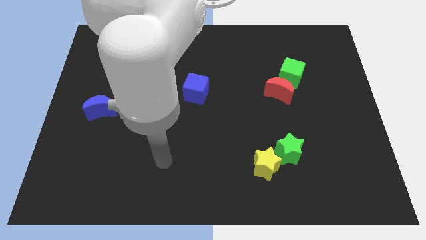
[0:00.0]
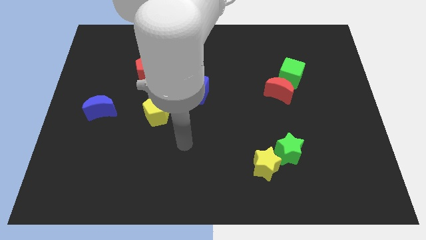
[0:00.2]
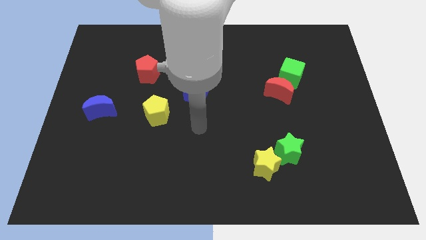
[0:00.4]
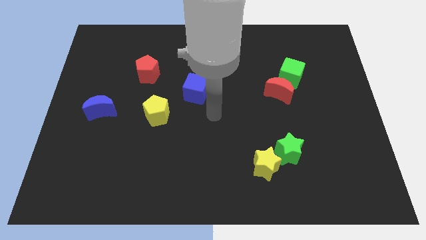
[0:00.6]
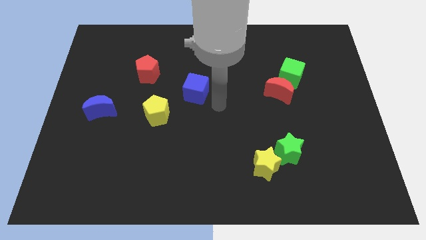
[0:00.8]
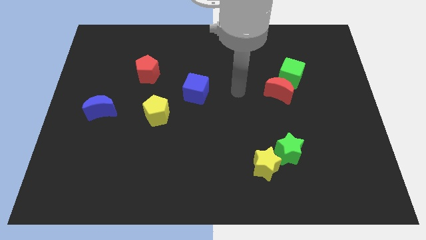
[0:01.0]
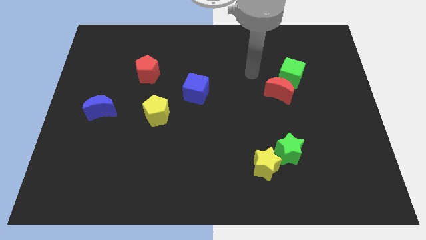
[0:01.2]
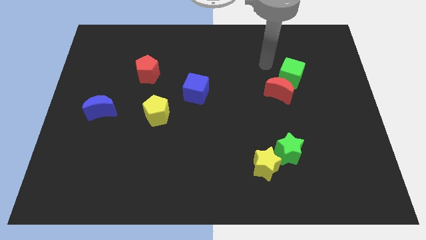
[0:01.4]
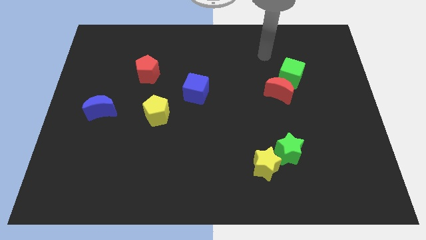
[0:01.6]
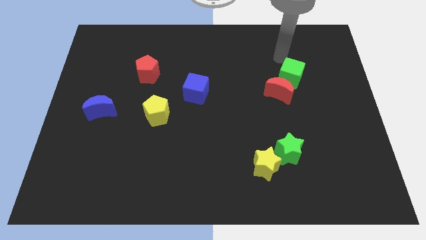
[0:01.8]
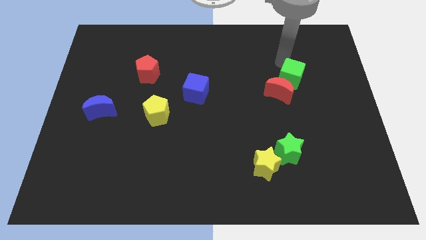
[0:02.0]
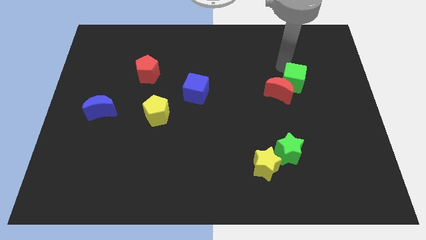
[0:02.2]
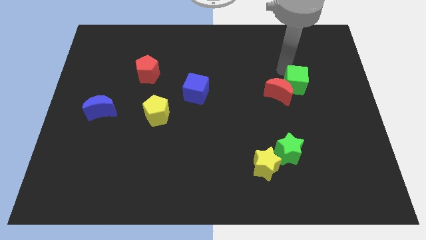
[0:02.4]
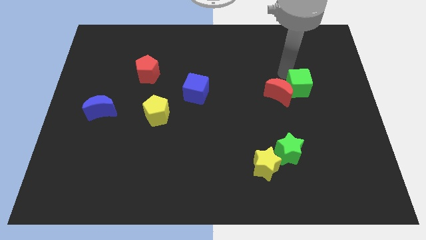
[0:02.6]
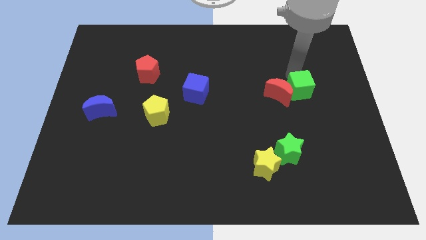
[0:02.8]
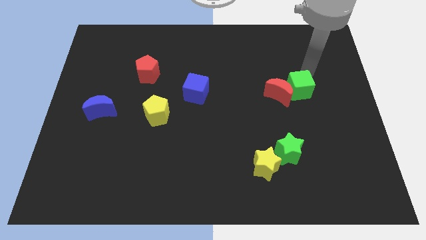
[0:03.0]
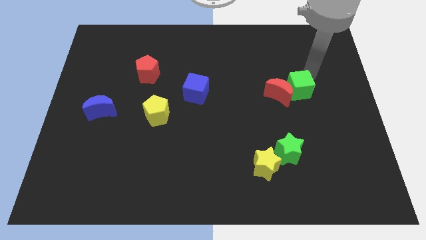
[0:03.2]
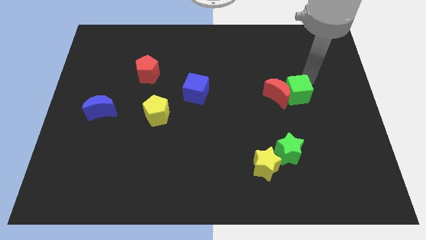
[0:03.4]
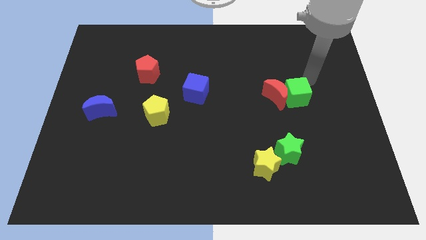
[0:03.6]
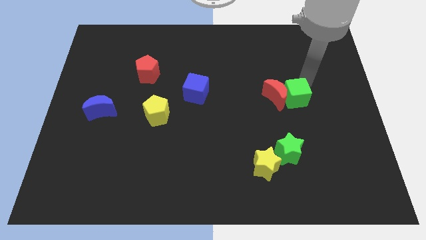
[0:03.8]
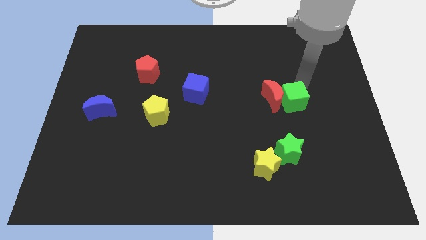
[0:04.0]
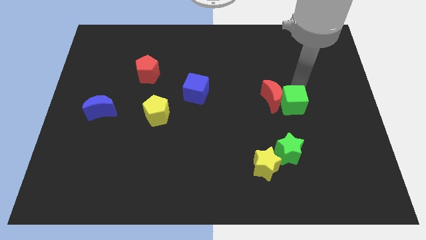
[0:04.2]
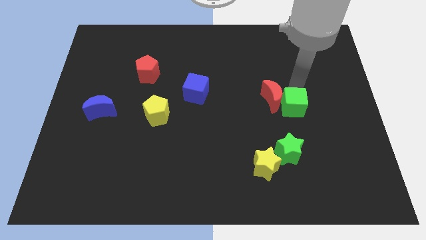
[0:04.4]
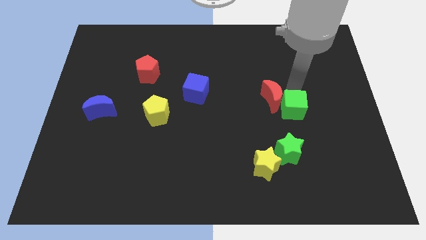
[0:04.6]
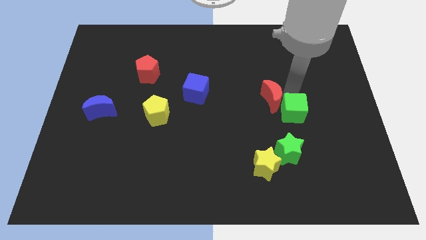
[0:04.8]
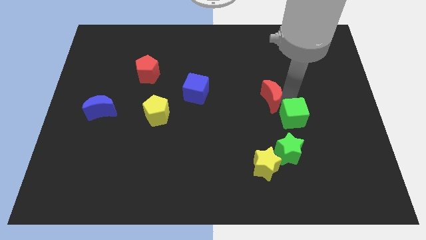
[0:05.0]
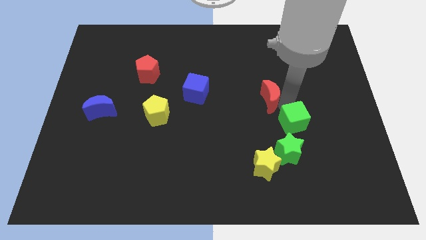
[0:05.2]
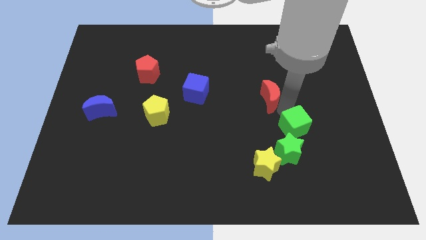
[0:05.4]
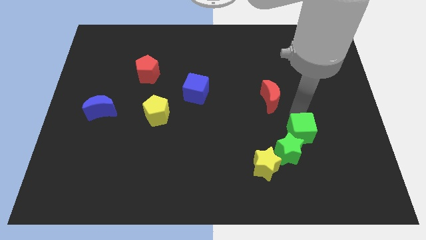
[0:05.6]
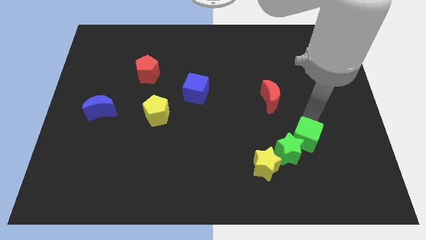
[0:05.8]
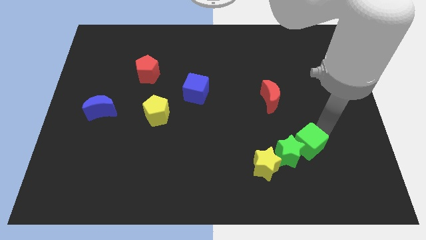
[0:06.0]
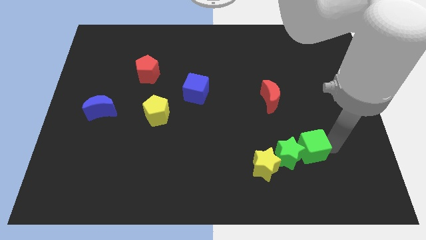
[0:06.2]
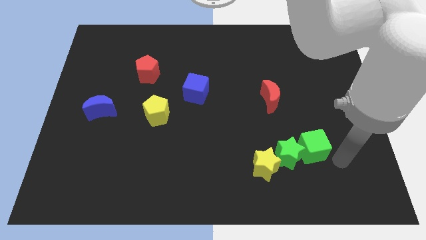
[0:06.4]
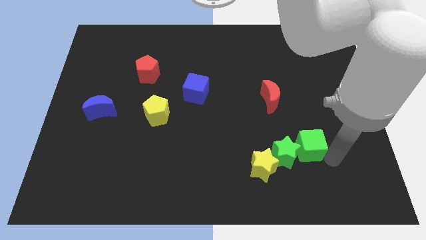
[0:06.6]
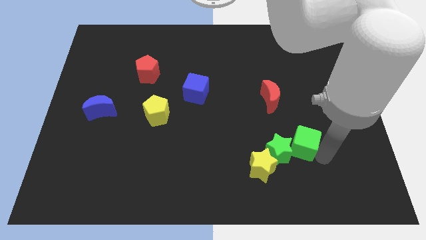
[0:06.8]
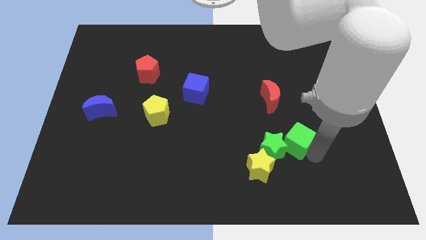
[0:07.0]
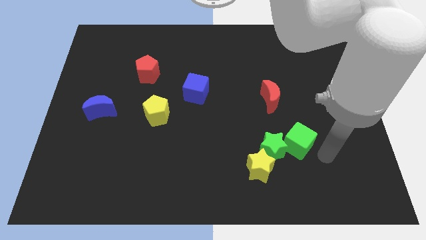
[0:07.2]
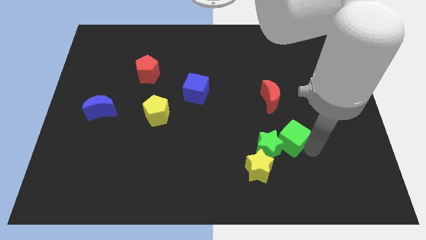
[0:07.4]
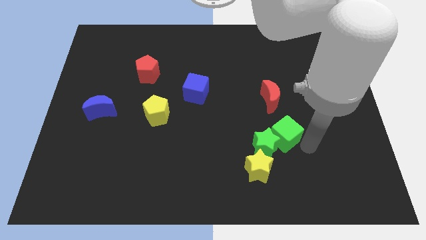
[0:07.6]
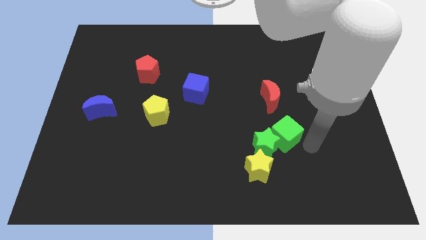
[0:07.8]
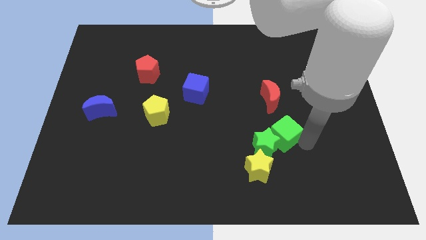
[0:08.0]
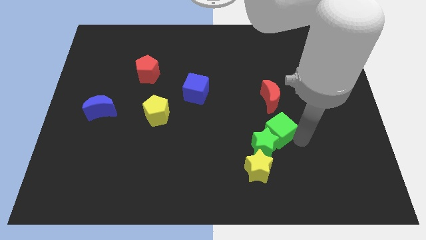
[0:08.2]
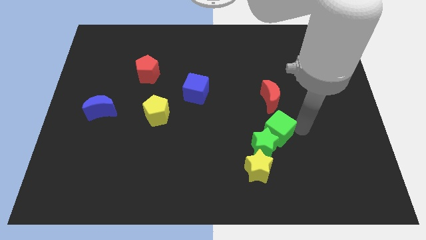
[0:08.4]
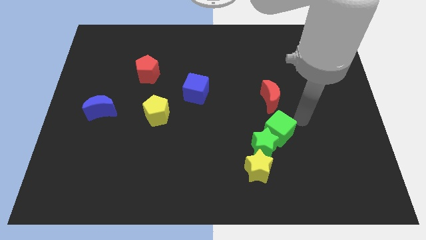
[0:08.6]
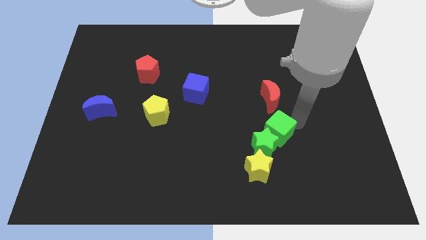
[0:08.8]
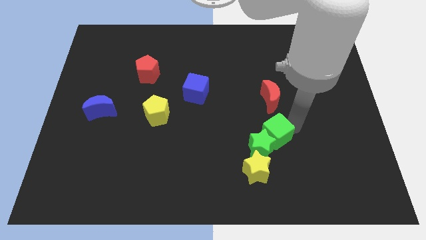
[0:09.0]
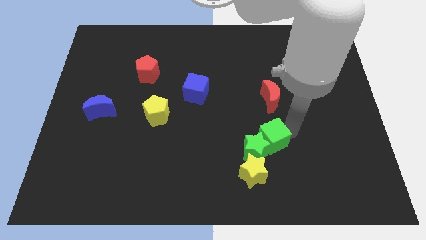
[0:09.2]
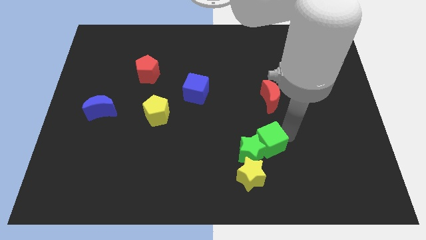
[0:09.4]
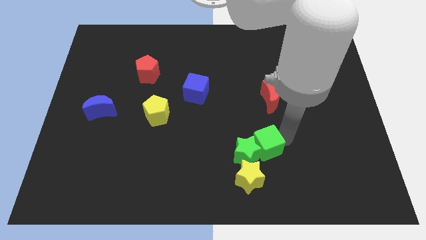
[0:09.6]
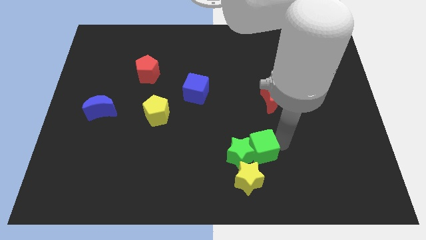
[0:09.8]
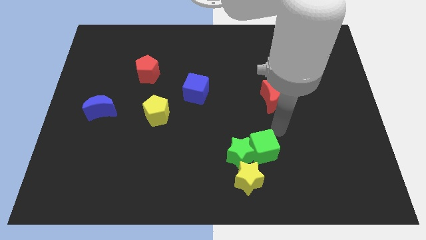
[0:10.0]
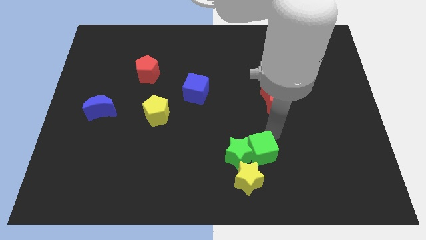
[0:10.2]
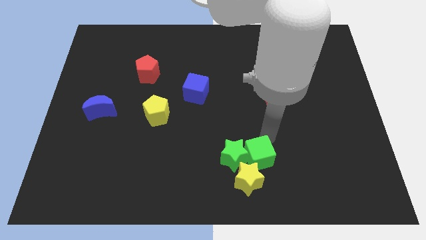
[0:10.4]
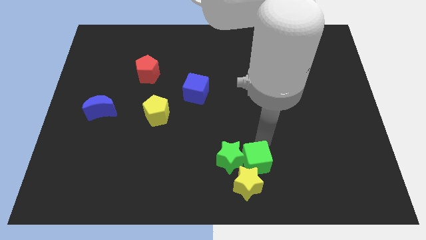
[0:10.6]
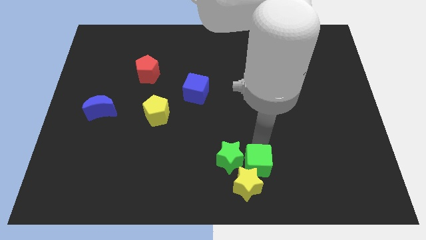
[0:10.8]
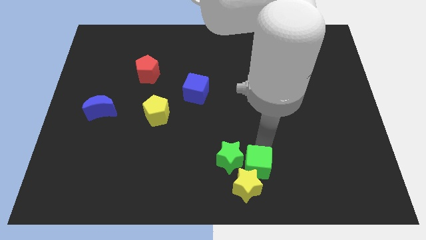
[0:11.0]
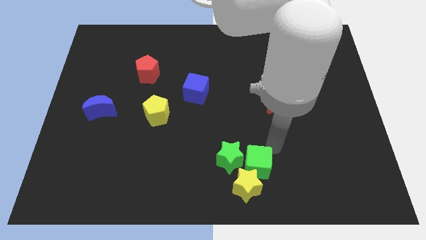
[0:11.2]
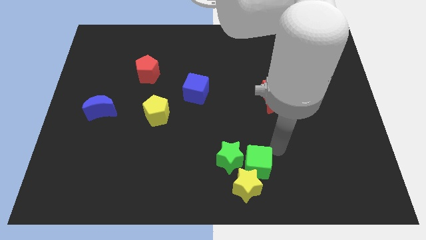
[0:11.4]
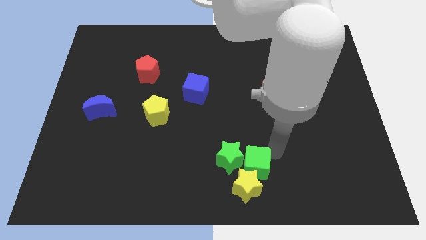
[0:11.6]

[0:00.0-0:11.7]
push the green cube to the bottom side

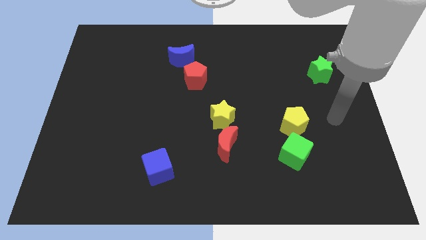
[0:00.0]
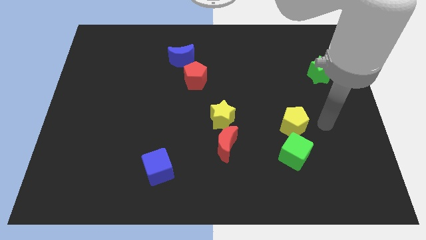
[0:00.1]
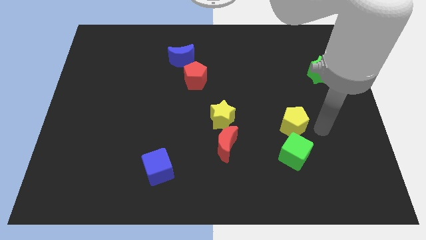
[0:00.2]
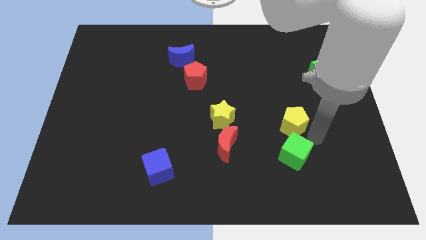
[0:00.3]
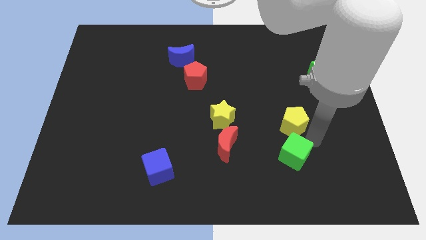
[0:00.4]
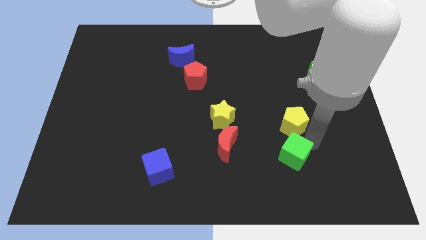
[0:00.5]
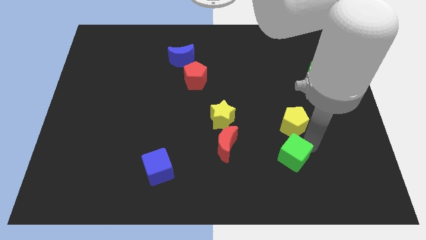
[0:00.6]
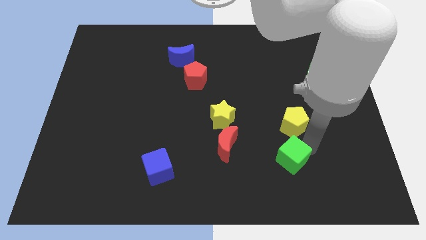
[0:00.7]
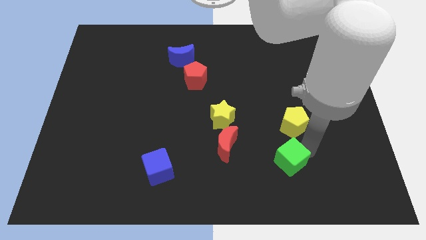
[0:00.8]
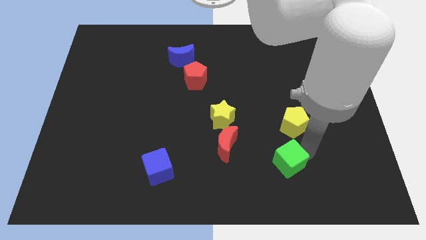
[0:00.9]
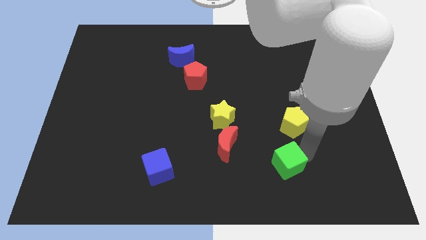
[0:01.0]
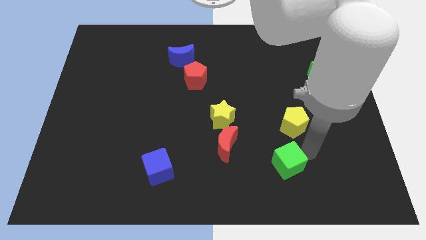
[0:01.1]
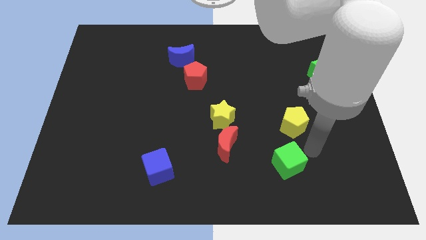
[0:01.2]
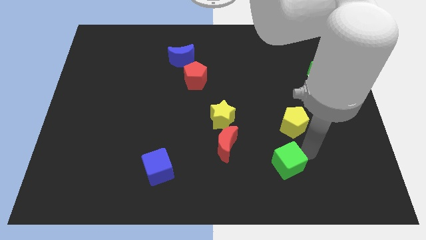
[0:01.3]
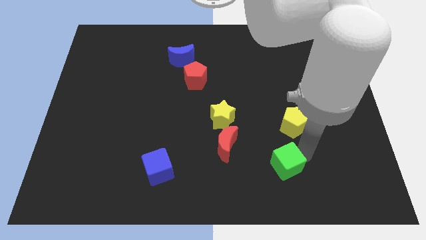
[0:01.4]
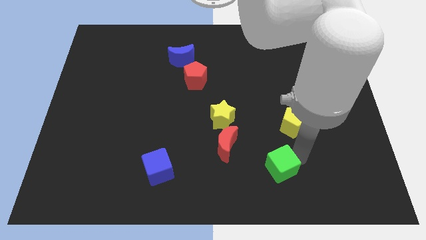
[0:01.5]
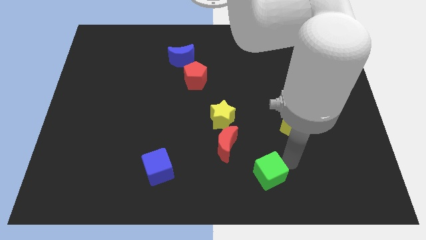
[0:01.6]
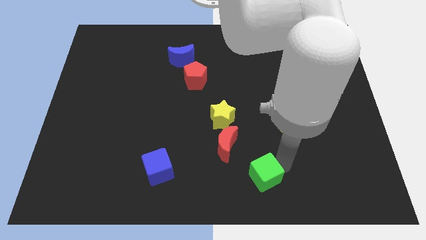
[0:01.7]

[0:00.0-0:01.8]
put the green cube to the bottom side
